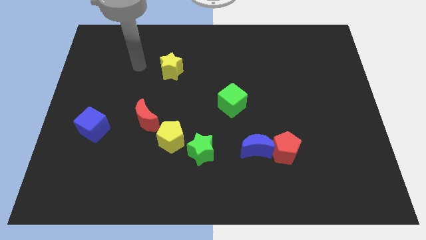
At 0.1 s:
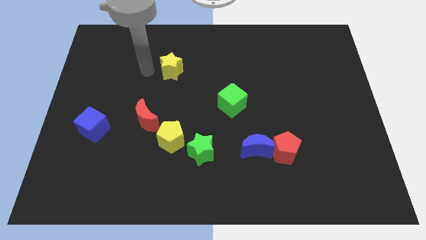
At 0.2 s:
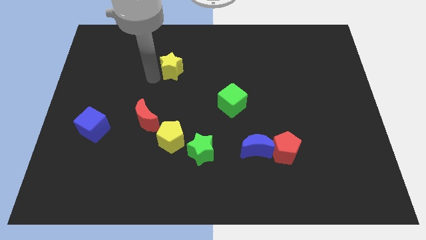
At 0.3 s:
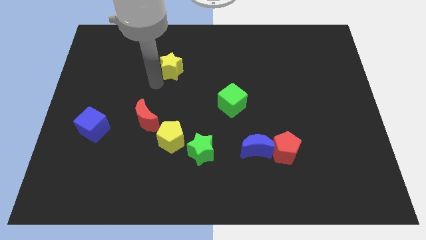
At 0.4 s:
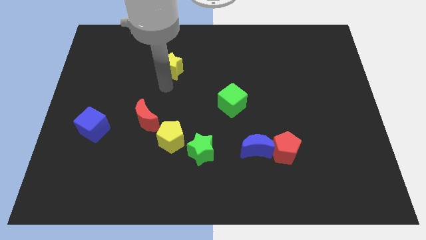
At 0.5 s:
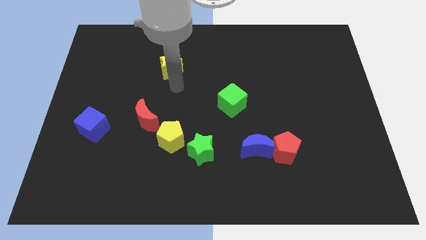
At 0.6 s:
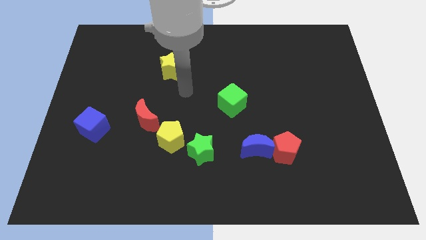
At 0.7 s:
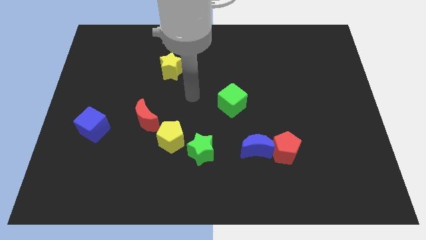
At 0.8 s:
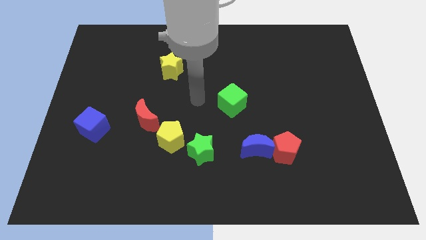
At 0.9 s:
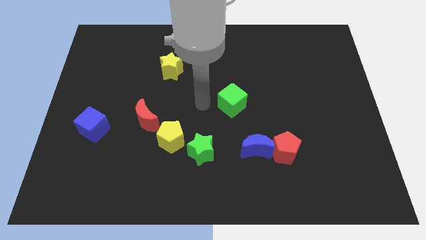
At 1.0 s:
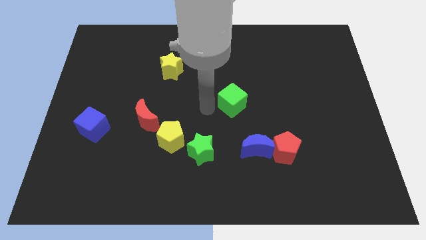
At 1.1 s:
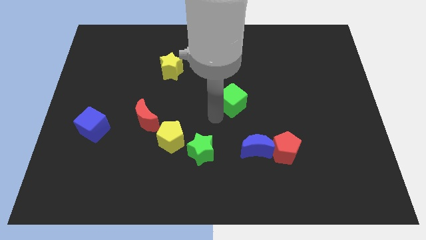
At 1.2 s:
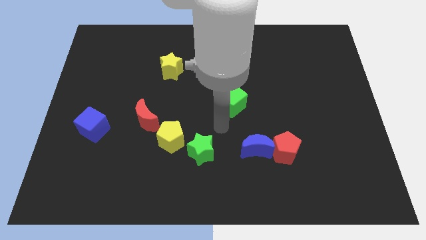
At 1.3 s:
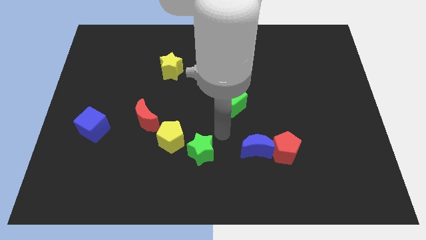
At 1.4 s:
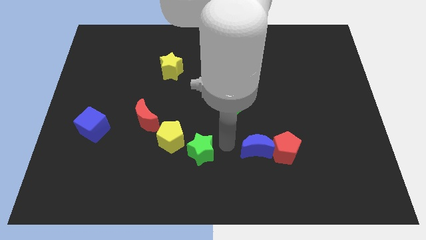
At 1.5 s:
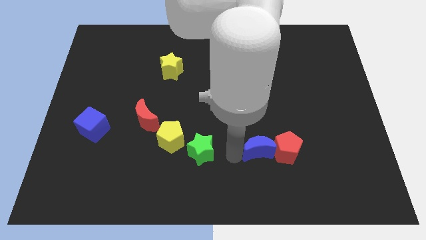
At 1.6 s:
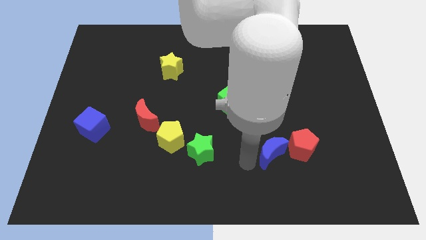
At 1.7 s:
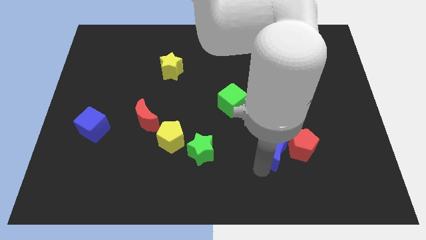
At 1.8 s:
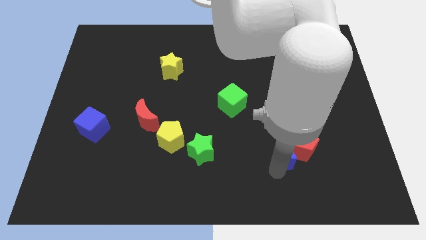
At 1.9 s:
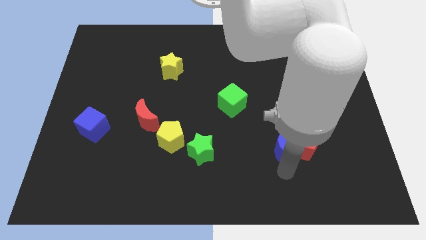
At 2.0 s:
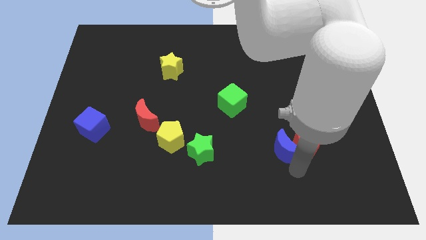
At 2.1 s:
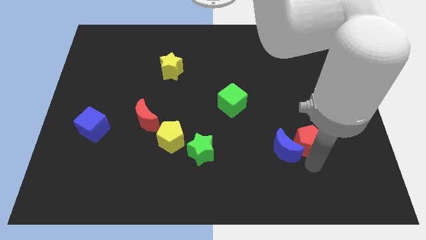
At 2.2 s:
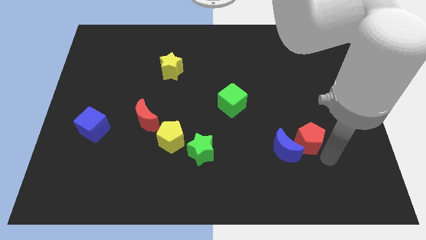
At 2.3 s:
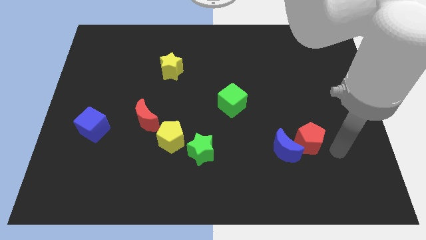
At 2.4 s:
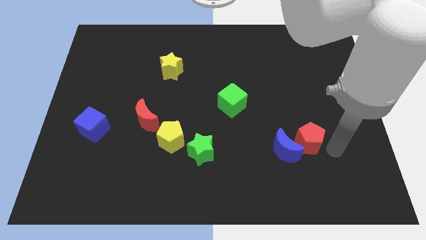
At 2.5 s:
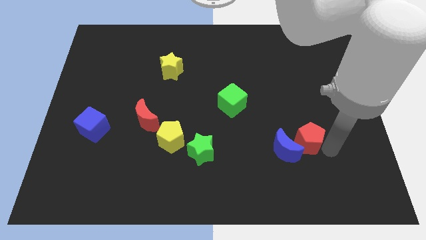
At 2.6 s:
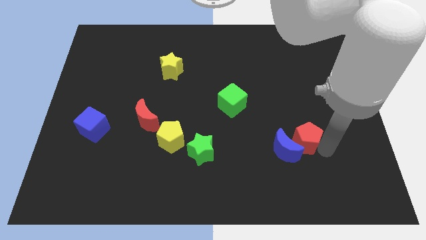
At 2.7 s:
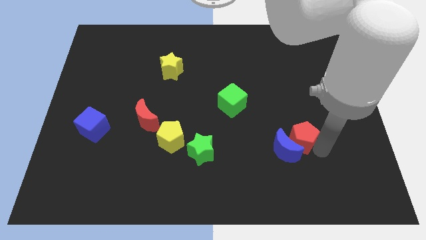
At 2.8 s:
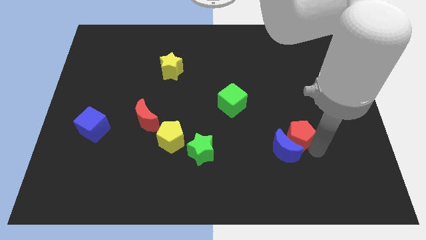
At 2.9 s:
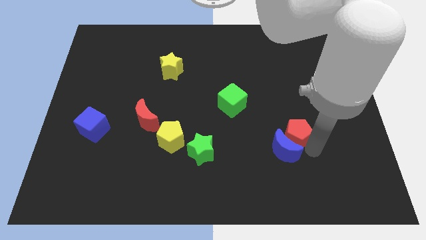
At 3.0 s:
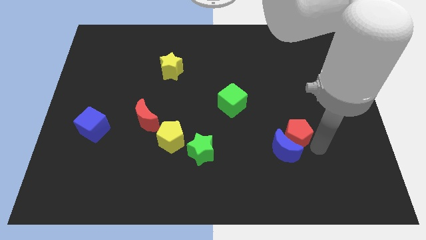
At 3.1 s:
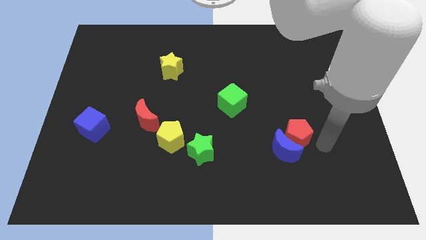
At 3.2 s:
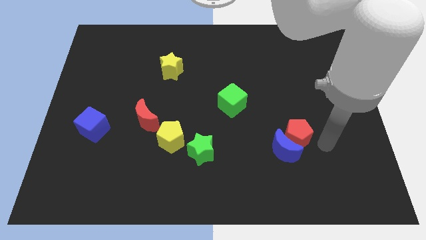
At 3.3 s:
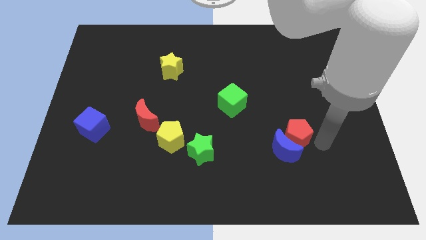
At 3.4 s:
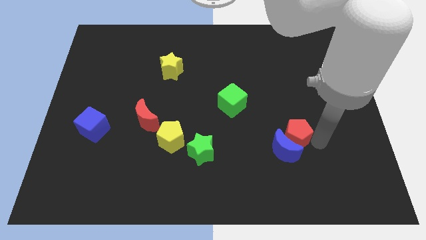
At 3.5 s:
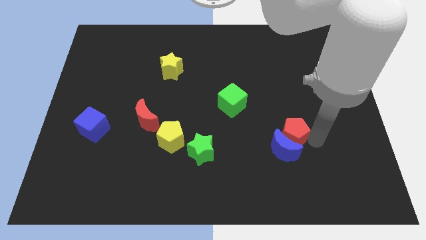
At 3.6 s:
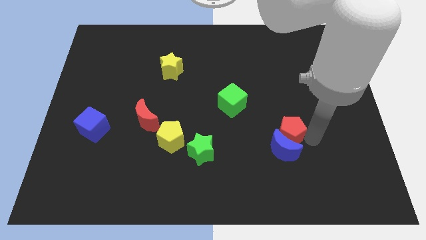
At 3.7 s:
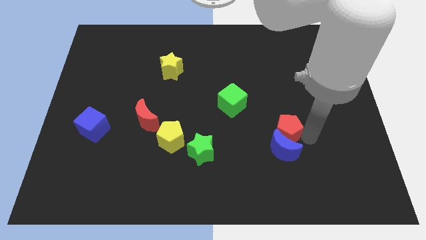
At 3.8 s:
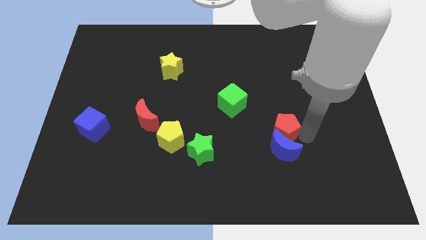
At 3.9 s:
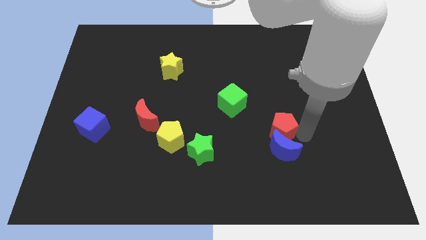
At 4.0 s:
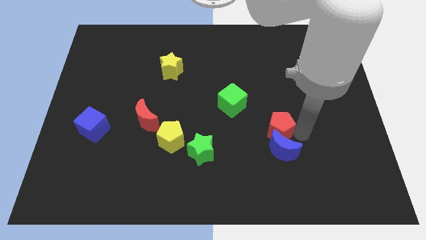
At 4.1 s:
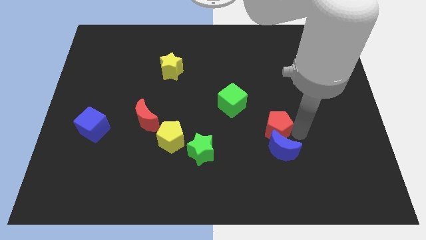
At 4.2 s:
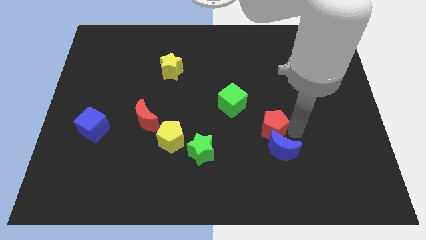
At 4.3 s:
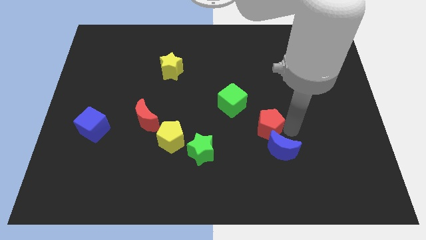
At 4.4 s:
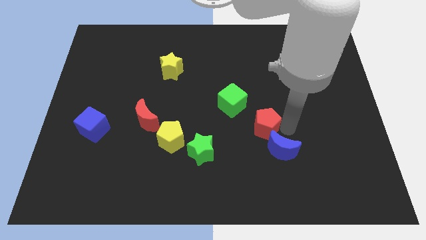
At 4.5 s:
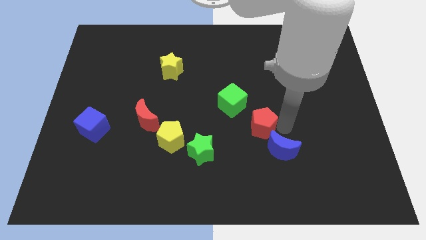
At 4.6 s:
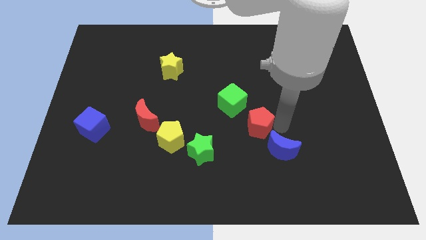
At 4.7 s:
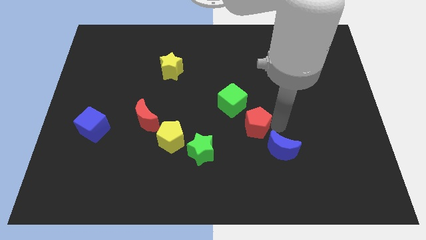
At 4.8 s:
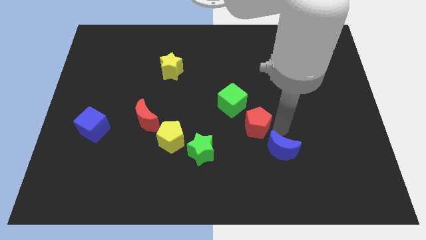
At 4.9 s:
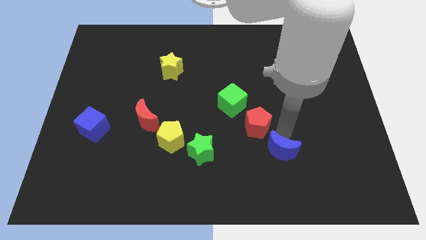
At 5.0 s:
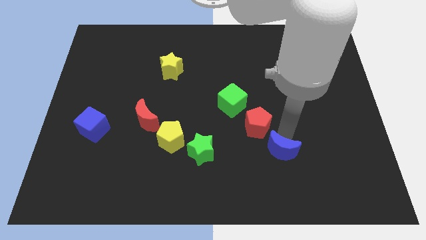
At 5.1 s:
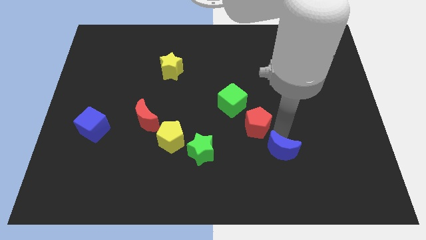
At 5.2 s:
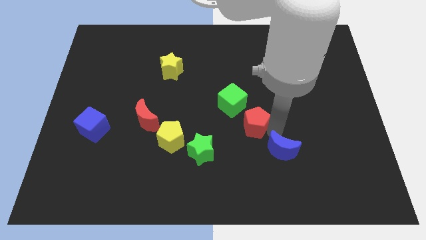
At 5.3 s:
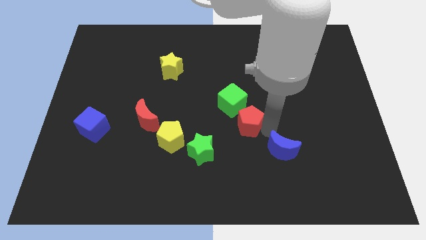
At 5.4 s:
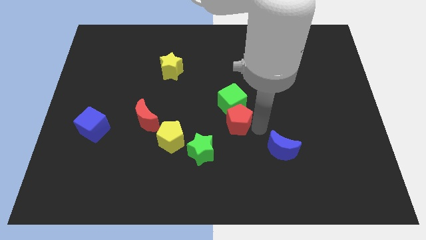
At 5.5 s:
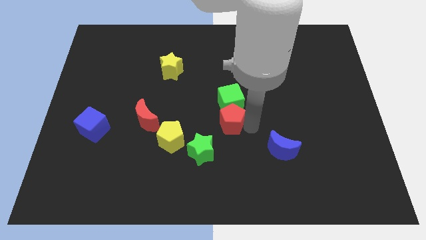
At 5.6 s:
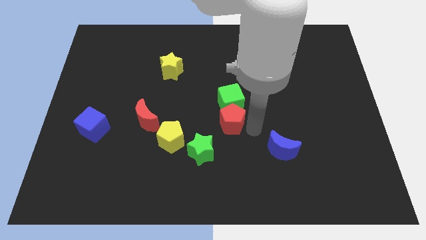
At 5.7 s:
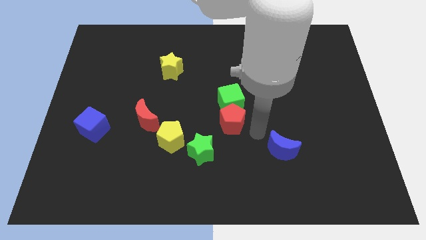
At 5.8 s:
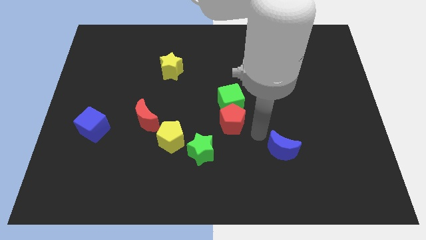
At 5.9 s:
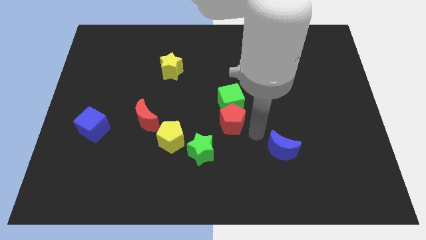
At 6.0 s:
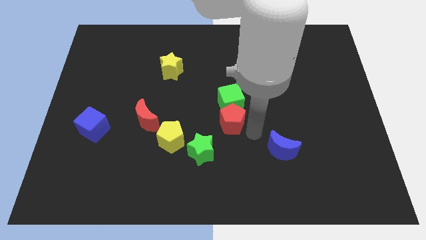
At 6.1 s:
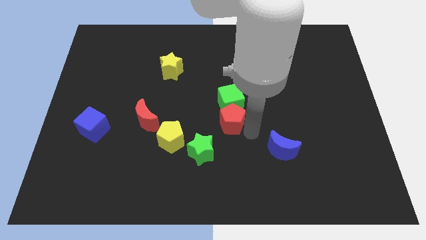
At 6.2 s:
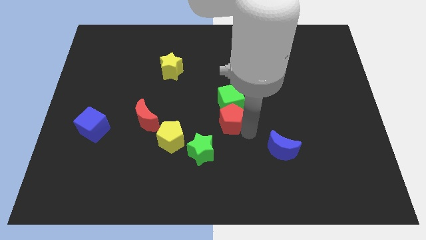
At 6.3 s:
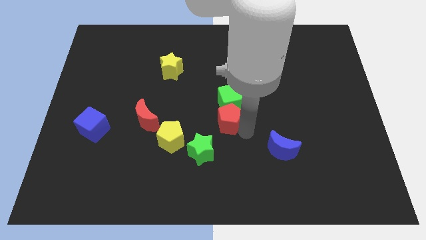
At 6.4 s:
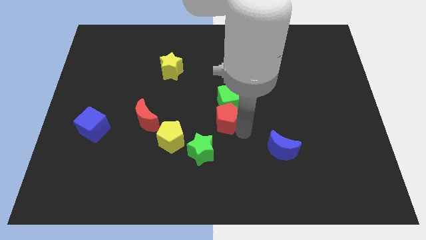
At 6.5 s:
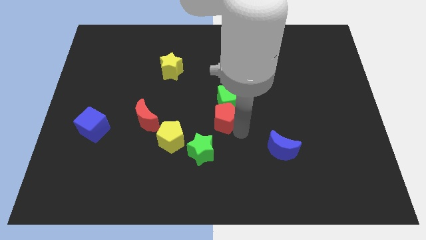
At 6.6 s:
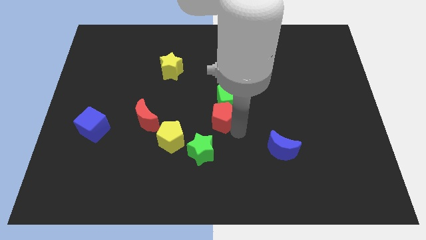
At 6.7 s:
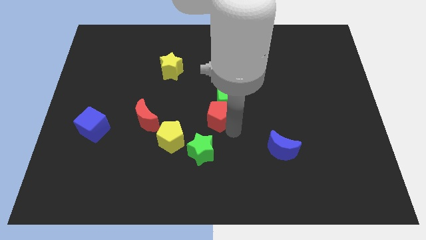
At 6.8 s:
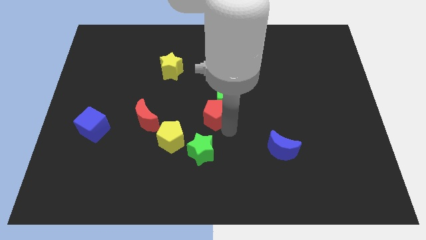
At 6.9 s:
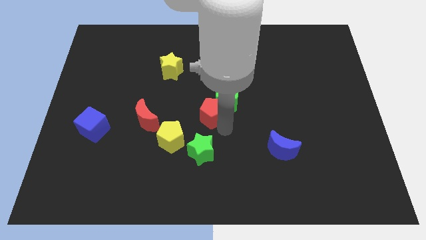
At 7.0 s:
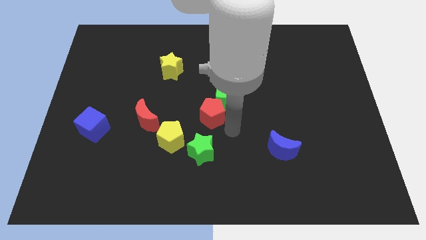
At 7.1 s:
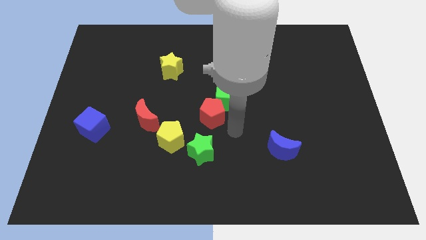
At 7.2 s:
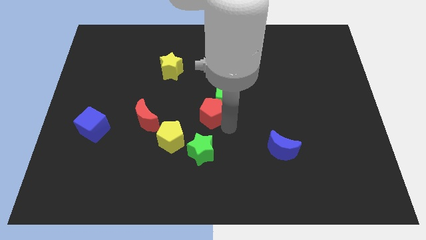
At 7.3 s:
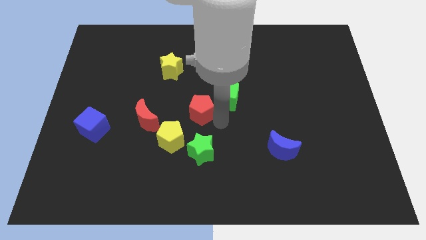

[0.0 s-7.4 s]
put the red pentagon just left of the green cube

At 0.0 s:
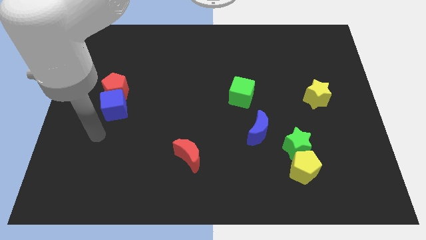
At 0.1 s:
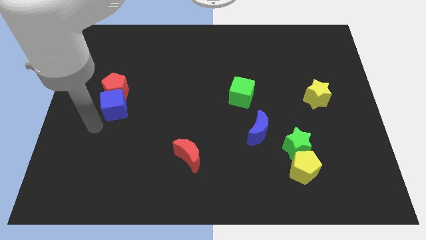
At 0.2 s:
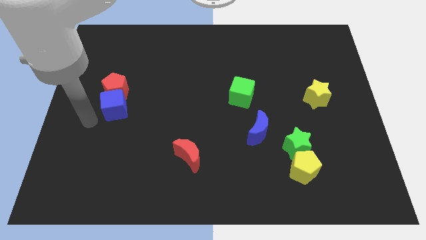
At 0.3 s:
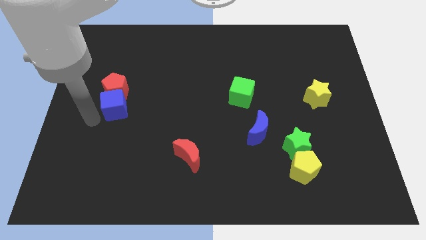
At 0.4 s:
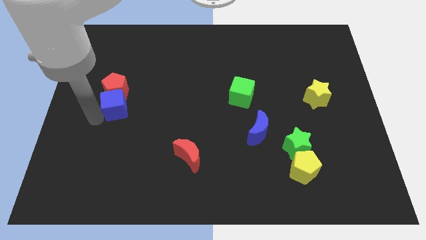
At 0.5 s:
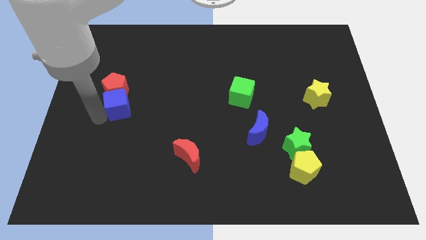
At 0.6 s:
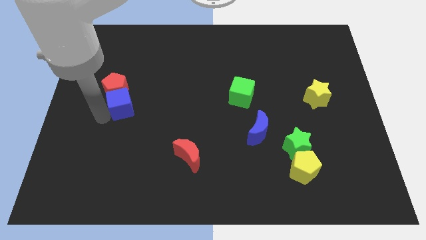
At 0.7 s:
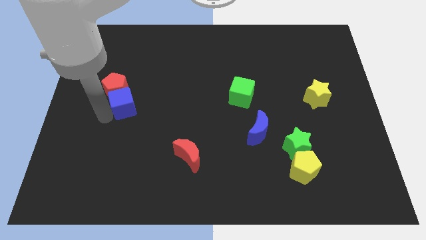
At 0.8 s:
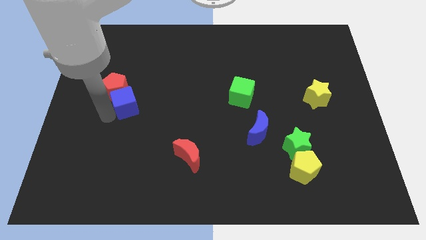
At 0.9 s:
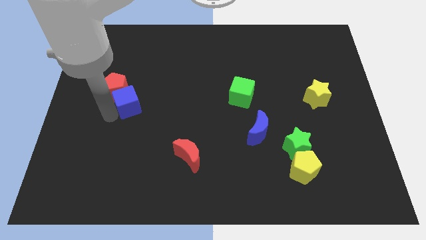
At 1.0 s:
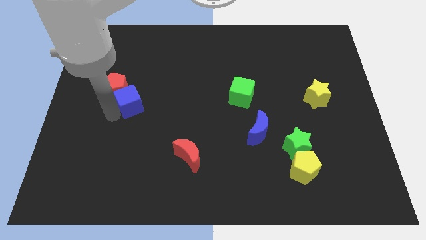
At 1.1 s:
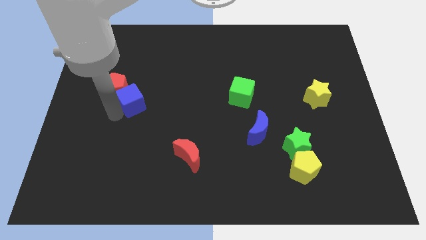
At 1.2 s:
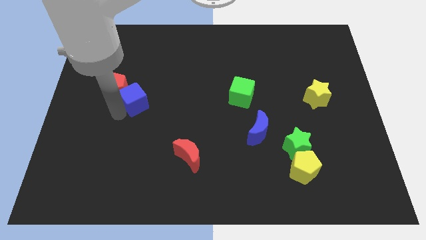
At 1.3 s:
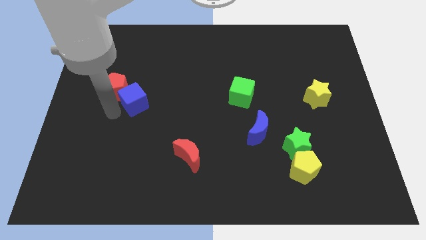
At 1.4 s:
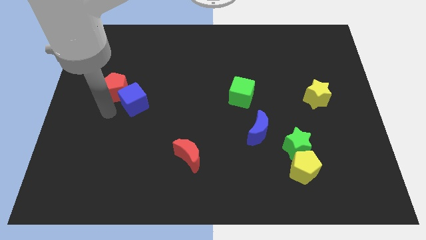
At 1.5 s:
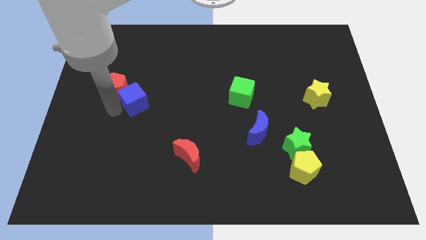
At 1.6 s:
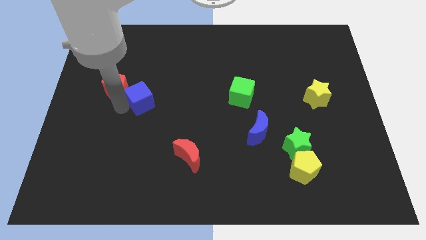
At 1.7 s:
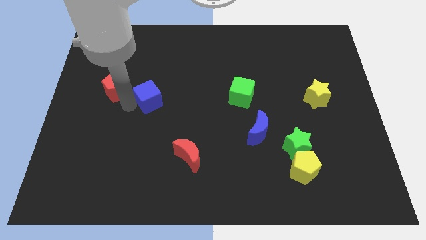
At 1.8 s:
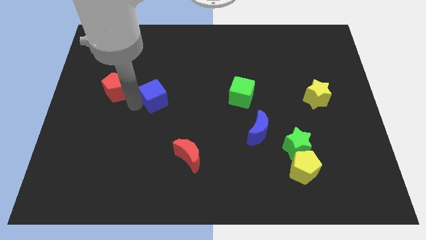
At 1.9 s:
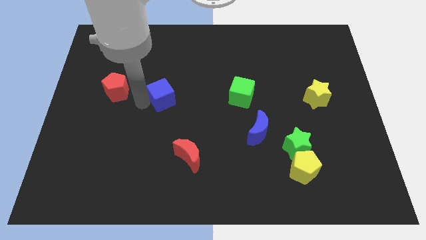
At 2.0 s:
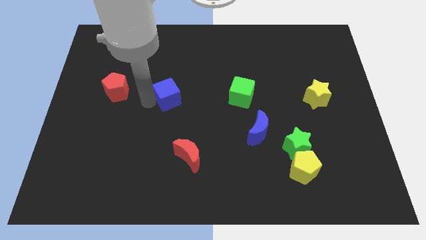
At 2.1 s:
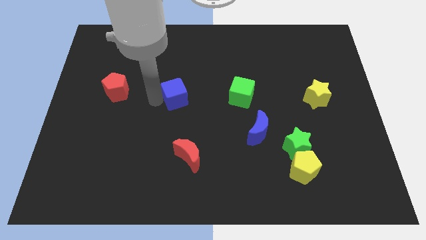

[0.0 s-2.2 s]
put the blue cube to the left of the green cube
